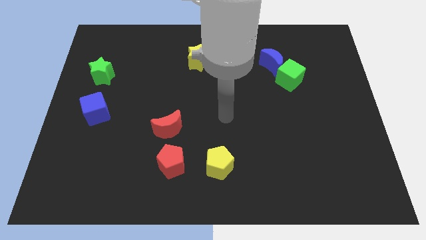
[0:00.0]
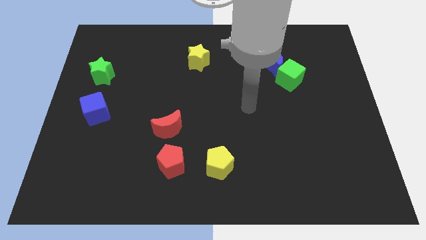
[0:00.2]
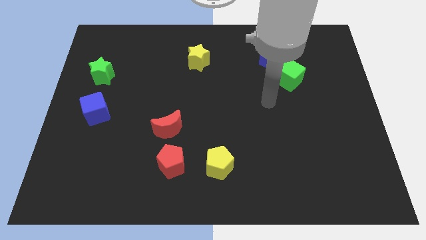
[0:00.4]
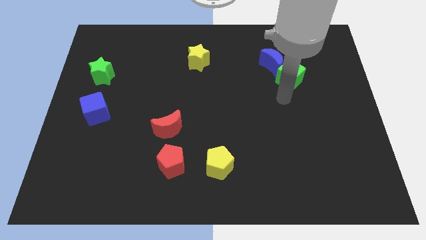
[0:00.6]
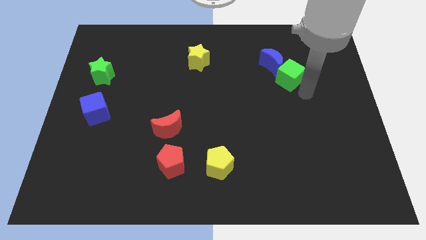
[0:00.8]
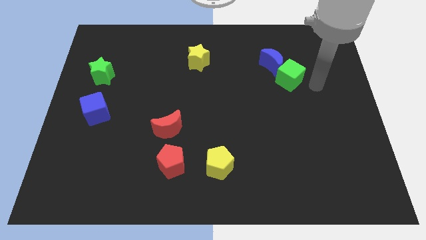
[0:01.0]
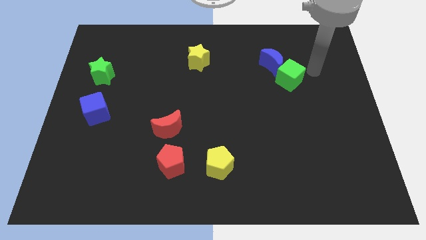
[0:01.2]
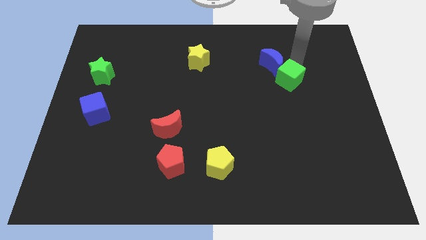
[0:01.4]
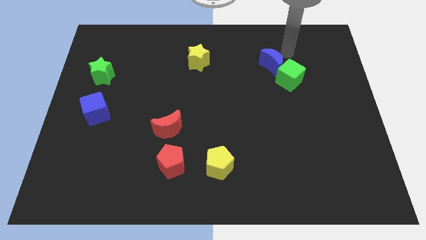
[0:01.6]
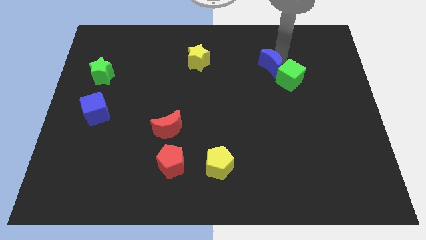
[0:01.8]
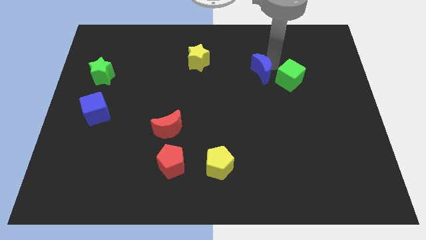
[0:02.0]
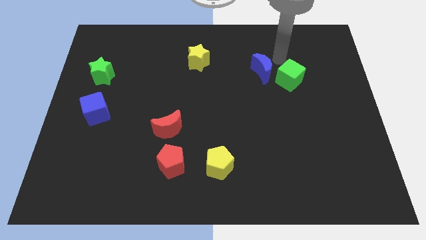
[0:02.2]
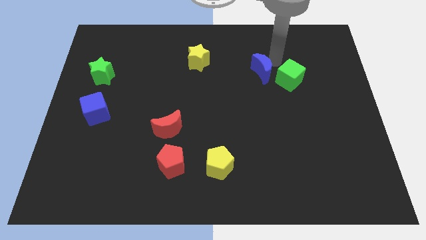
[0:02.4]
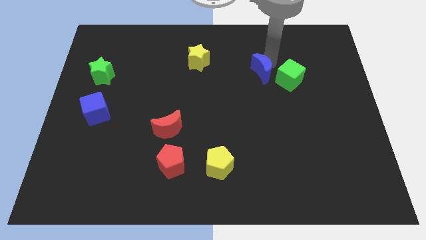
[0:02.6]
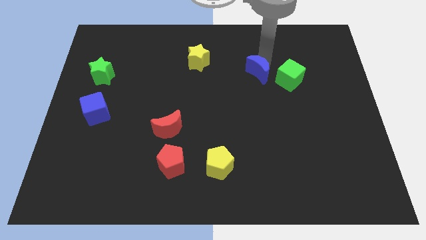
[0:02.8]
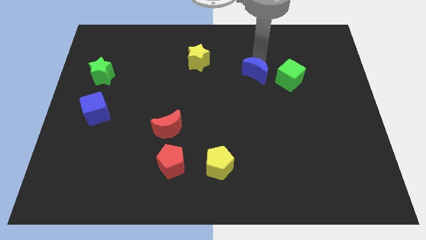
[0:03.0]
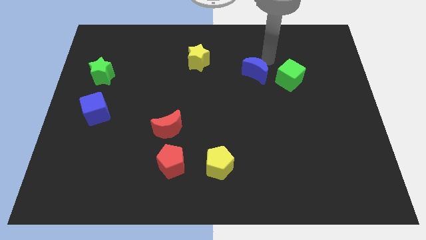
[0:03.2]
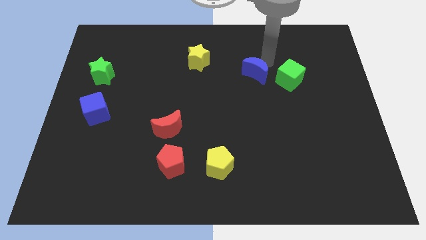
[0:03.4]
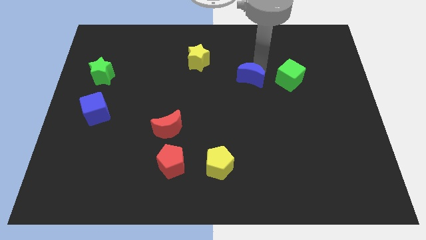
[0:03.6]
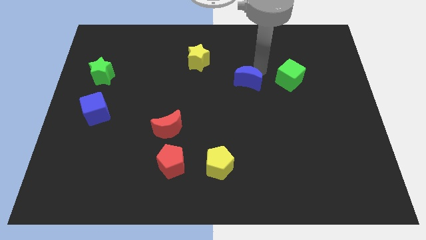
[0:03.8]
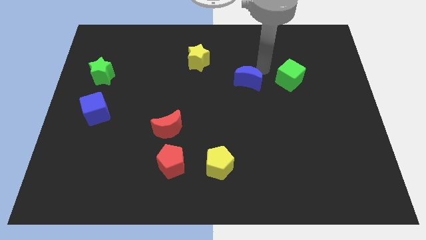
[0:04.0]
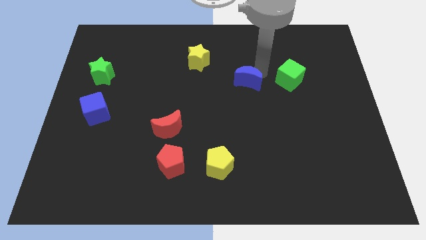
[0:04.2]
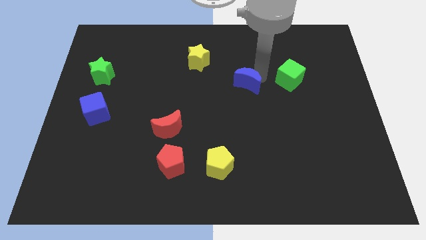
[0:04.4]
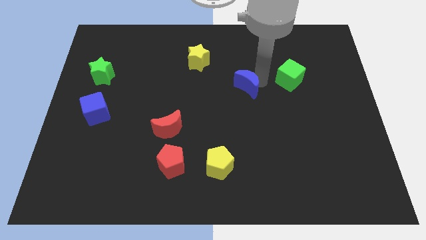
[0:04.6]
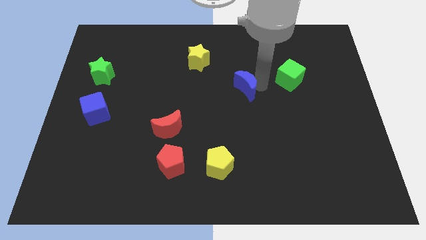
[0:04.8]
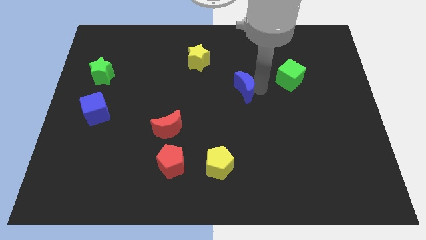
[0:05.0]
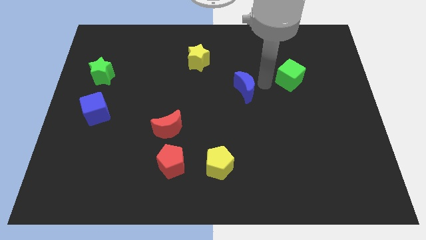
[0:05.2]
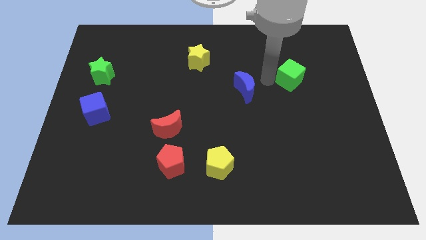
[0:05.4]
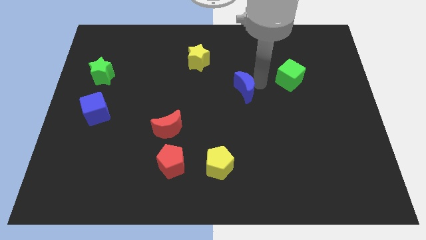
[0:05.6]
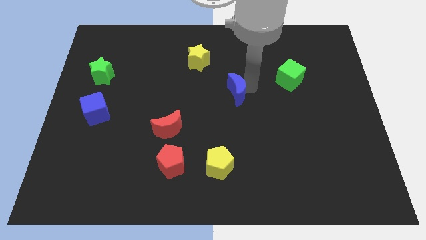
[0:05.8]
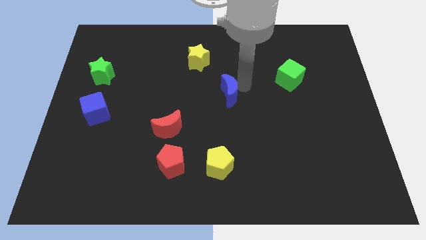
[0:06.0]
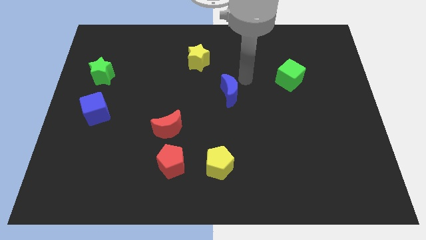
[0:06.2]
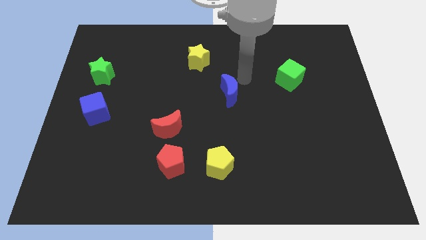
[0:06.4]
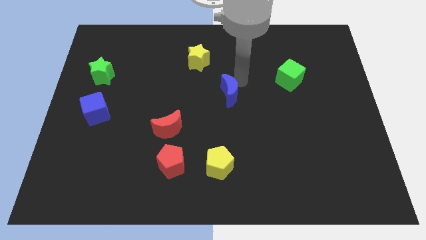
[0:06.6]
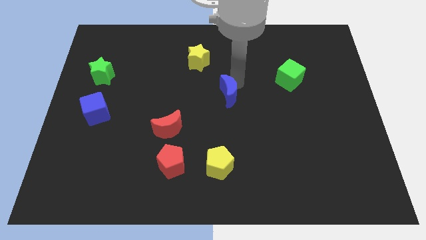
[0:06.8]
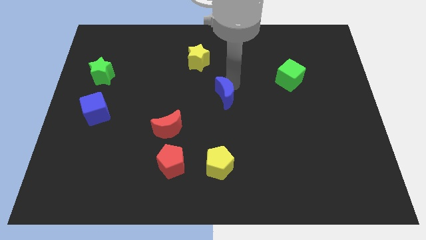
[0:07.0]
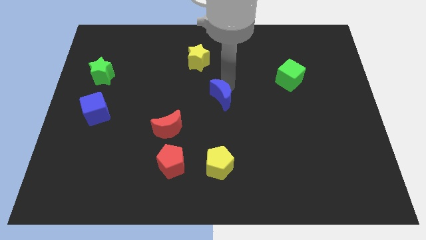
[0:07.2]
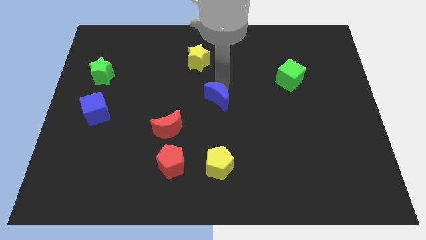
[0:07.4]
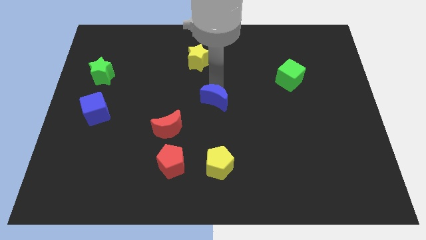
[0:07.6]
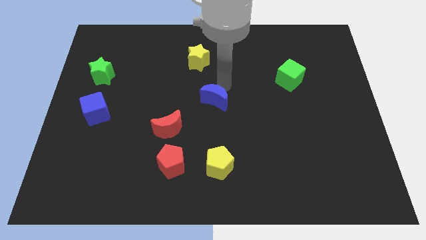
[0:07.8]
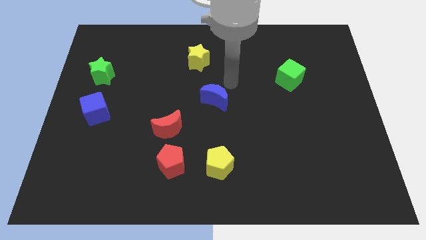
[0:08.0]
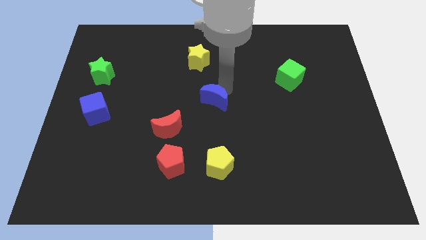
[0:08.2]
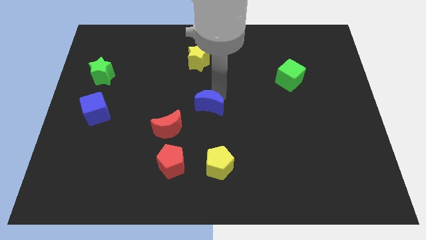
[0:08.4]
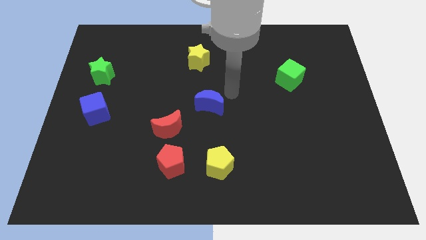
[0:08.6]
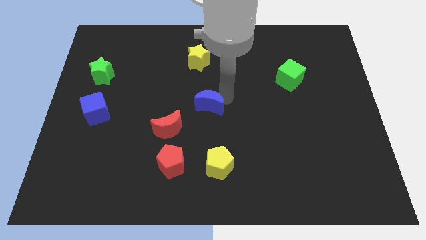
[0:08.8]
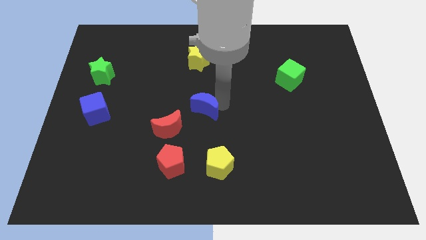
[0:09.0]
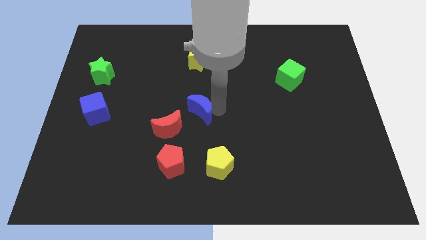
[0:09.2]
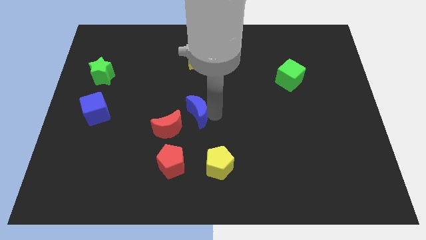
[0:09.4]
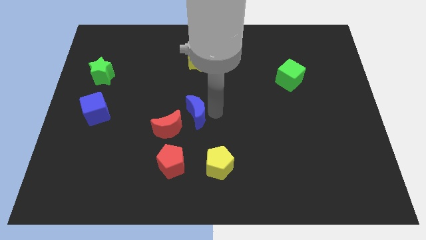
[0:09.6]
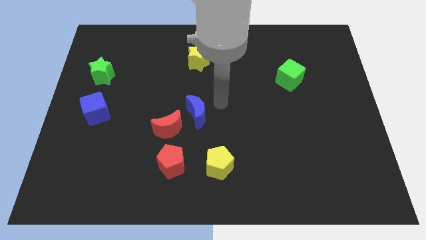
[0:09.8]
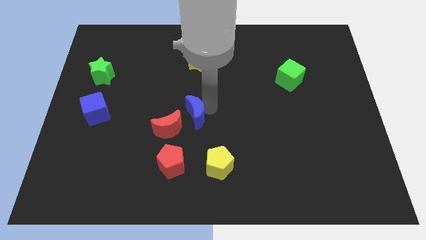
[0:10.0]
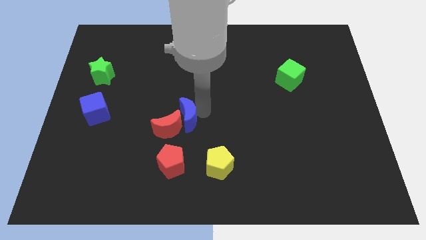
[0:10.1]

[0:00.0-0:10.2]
slide the blue moon towards the red moon

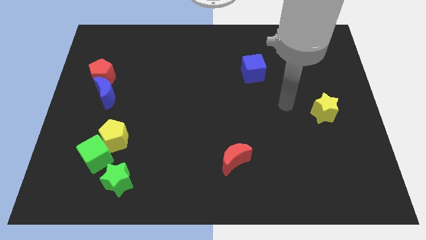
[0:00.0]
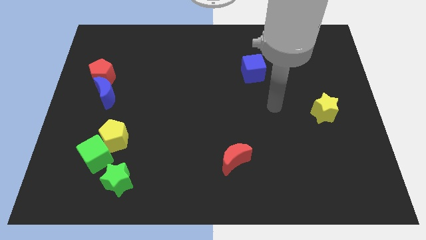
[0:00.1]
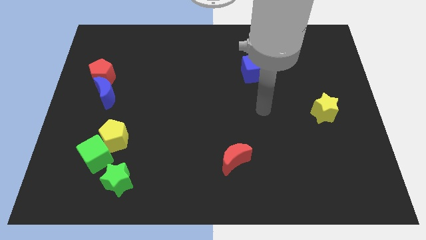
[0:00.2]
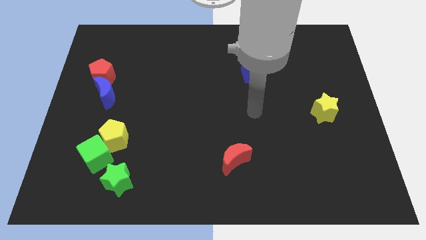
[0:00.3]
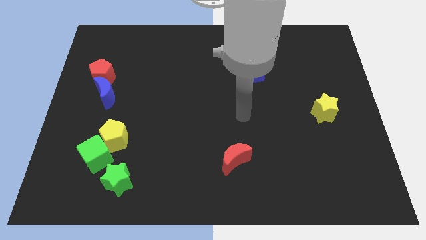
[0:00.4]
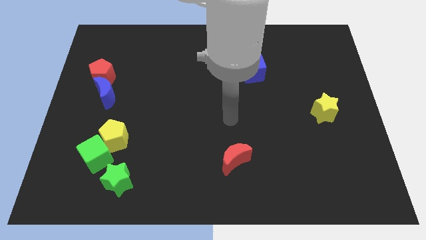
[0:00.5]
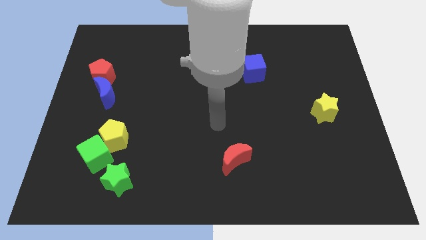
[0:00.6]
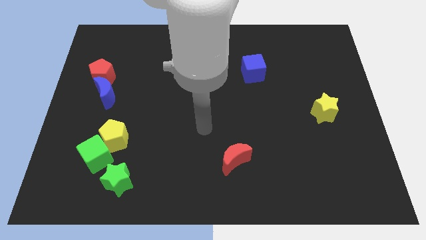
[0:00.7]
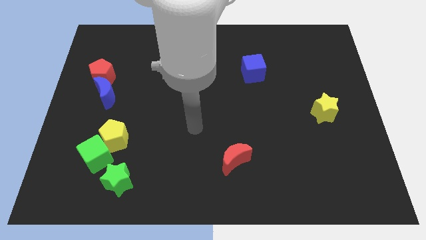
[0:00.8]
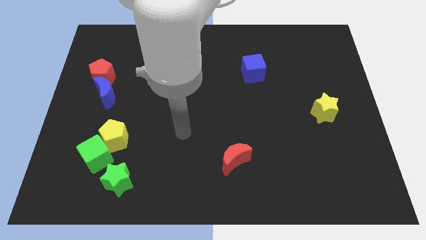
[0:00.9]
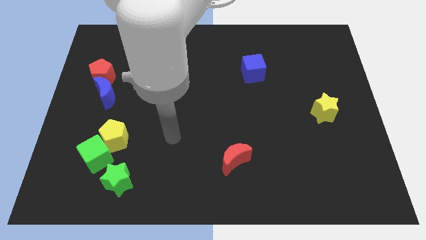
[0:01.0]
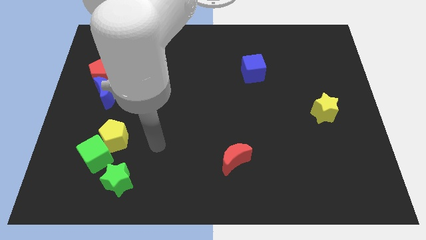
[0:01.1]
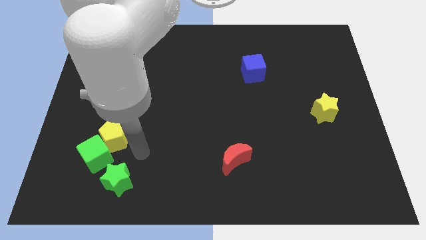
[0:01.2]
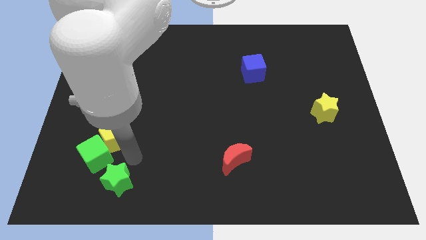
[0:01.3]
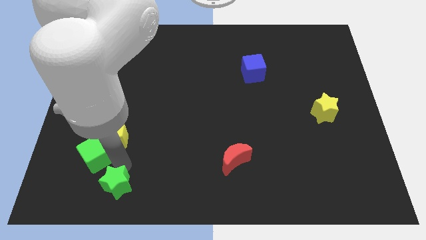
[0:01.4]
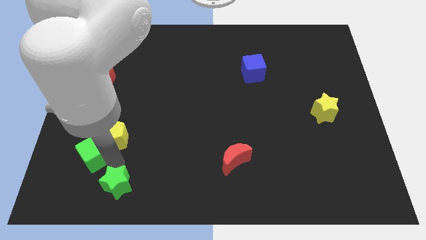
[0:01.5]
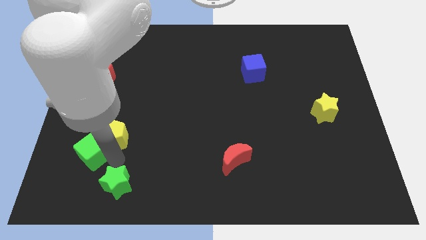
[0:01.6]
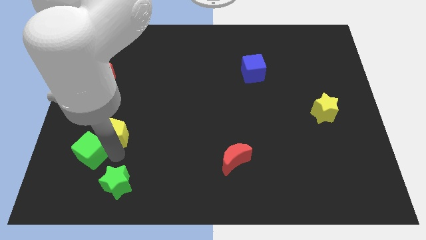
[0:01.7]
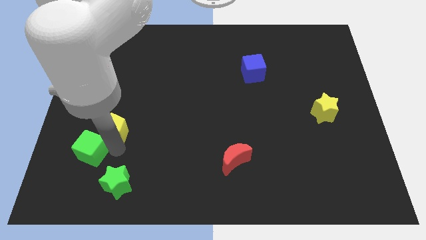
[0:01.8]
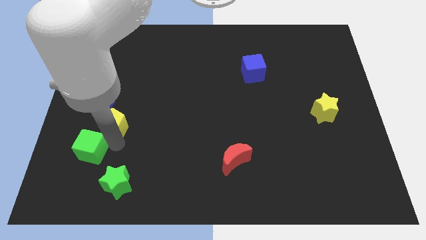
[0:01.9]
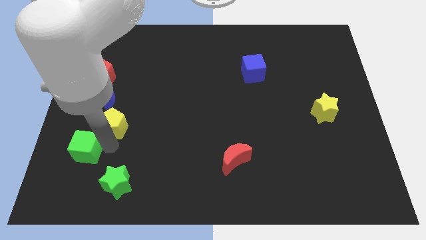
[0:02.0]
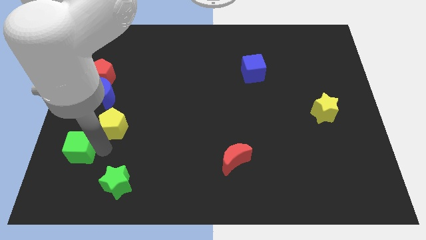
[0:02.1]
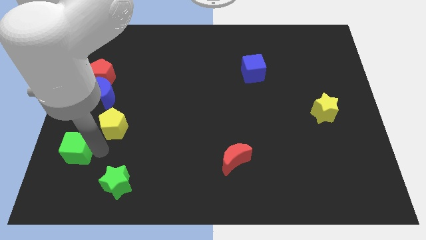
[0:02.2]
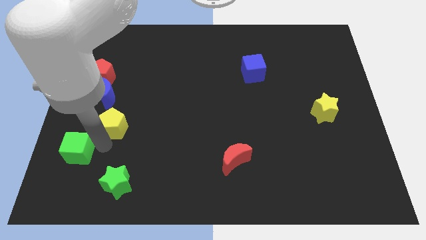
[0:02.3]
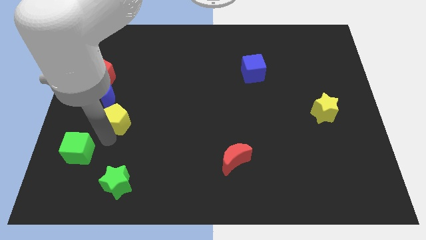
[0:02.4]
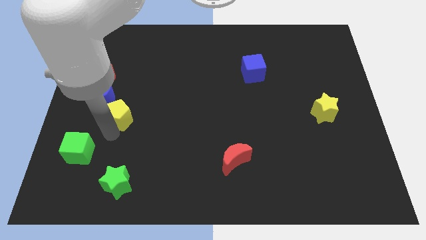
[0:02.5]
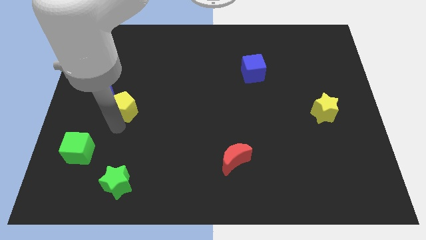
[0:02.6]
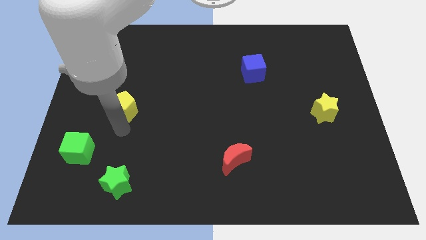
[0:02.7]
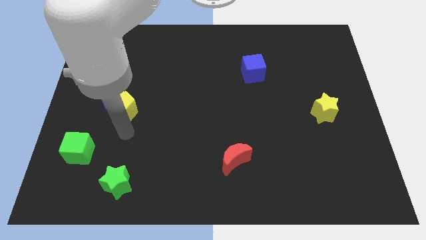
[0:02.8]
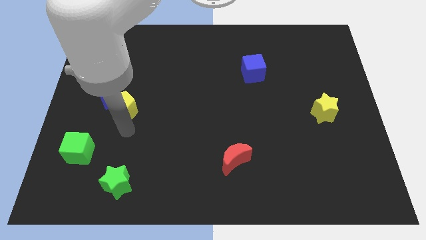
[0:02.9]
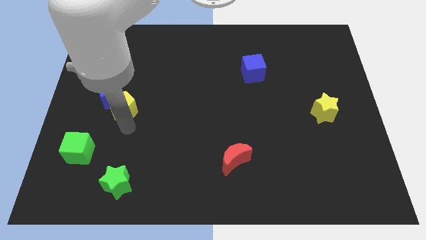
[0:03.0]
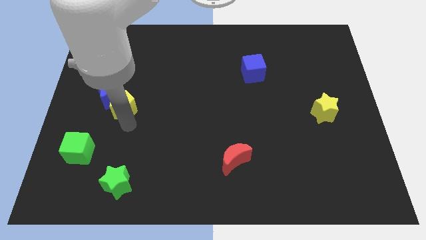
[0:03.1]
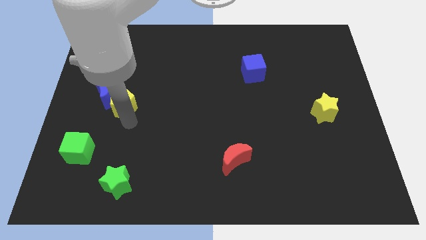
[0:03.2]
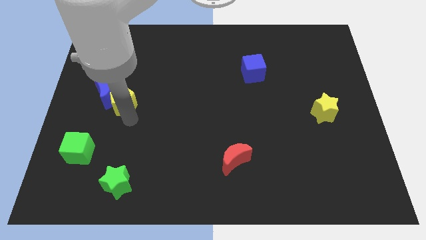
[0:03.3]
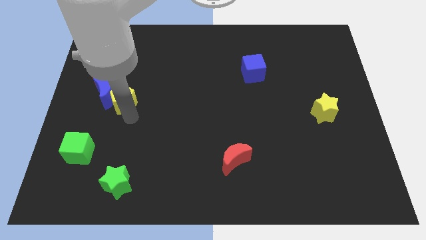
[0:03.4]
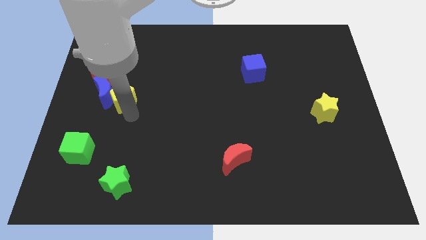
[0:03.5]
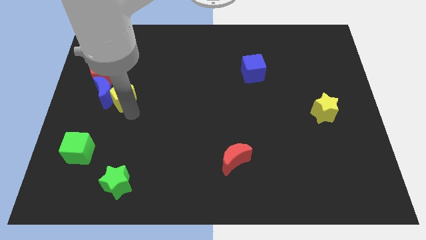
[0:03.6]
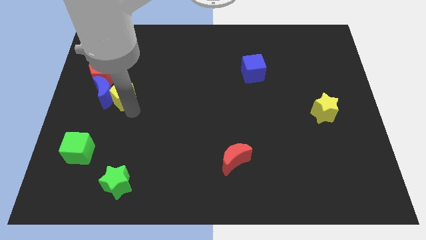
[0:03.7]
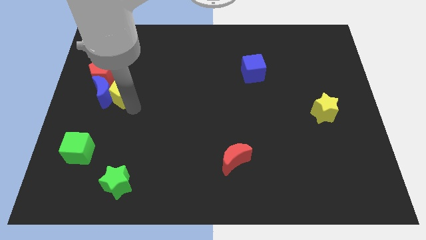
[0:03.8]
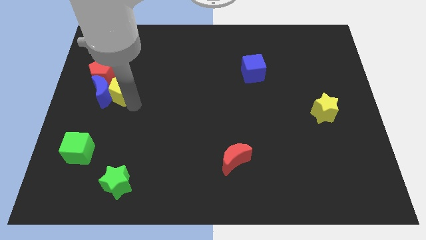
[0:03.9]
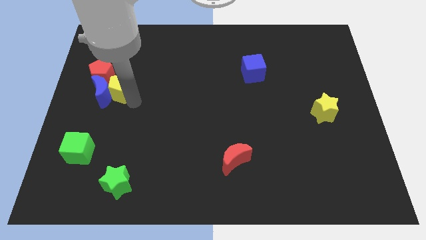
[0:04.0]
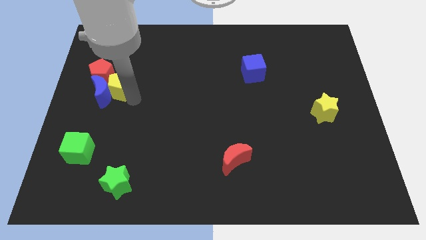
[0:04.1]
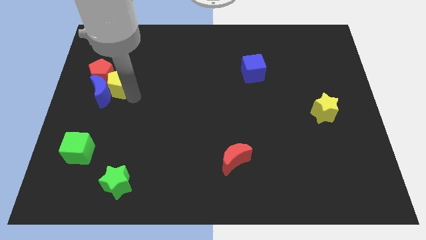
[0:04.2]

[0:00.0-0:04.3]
put the yellow pentagon towards the red pentagon
